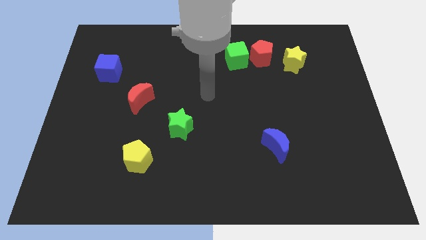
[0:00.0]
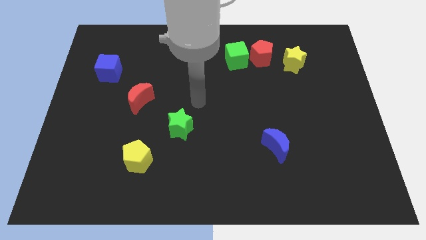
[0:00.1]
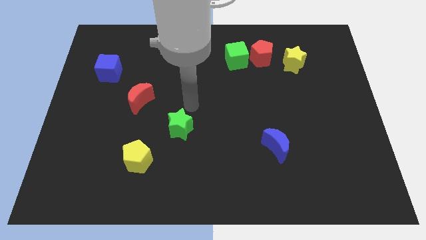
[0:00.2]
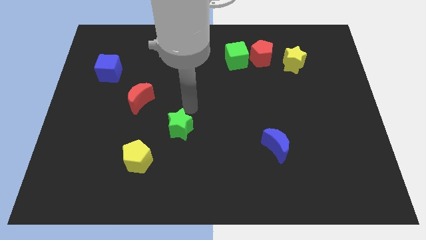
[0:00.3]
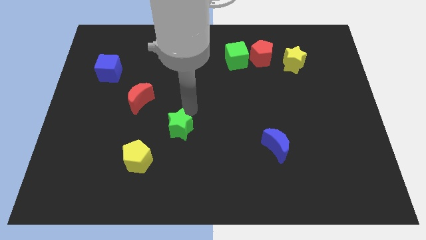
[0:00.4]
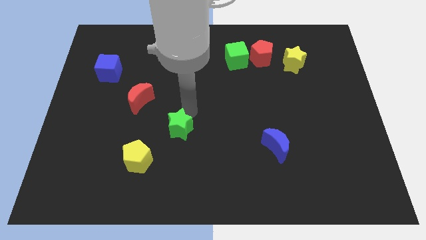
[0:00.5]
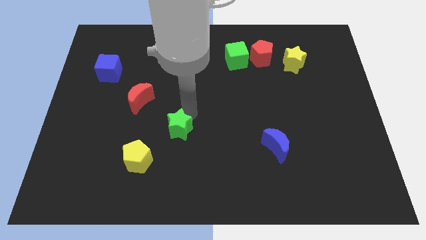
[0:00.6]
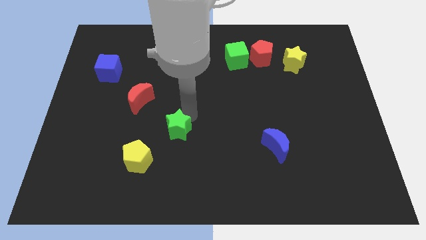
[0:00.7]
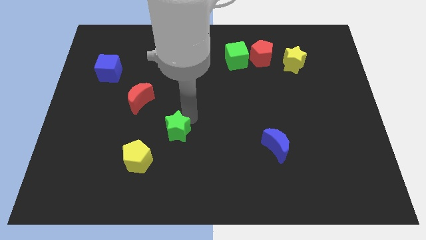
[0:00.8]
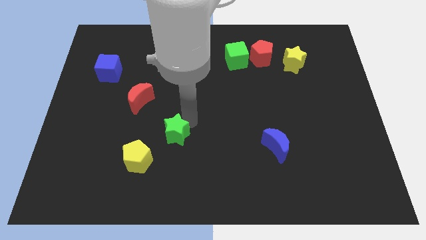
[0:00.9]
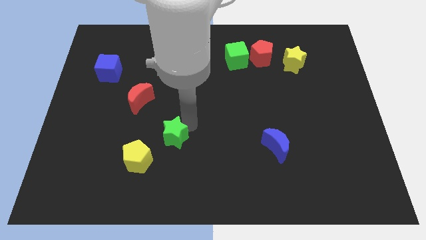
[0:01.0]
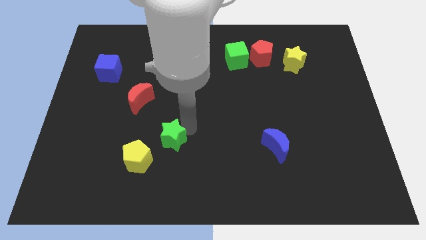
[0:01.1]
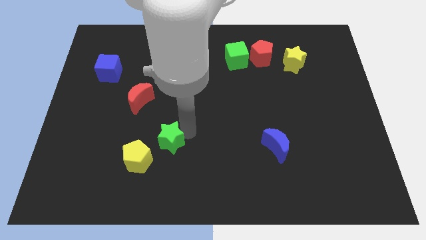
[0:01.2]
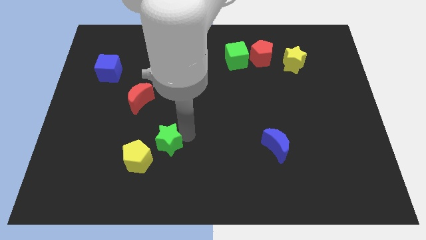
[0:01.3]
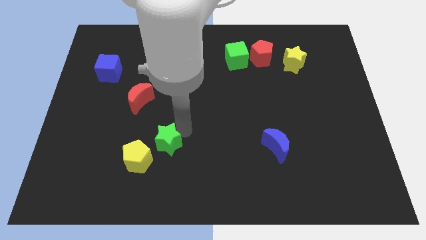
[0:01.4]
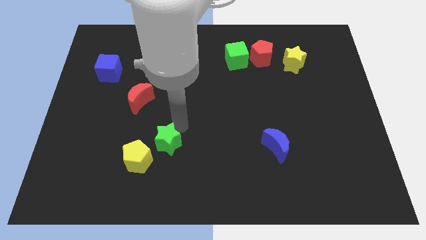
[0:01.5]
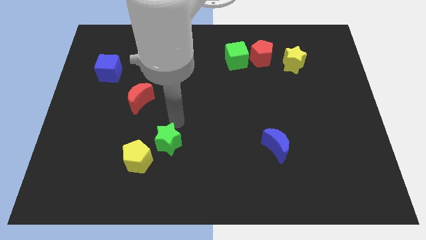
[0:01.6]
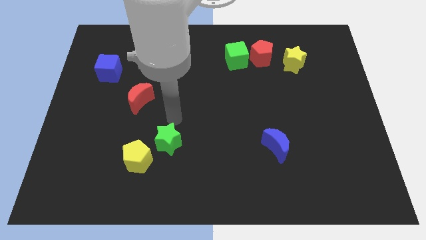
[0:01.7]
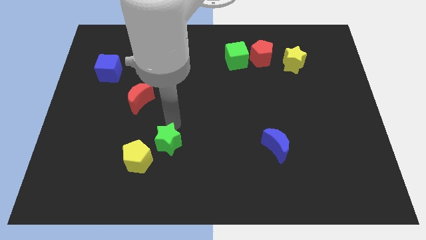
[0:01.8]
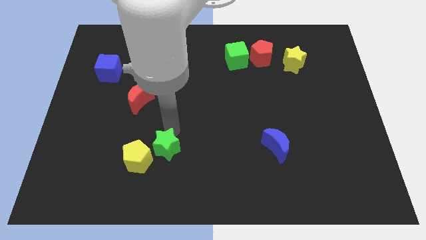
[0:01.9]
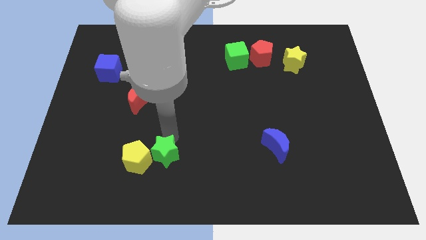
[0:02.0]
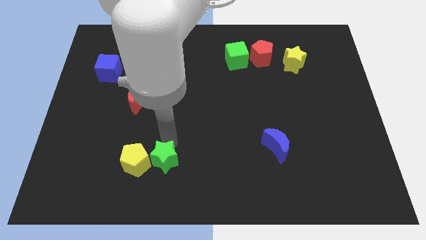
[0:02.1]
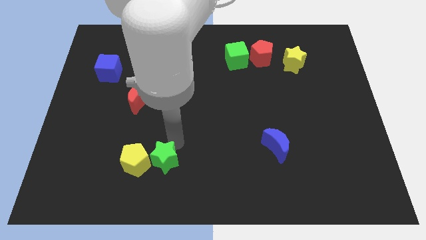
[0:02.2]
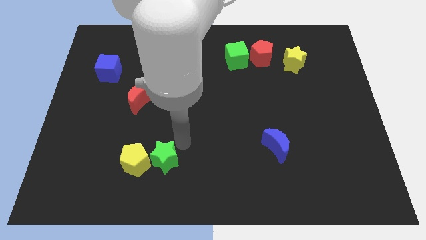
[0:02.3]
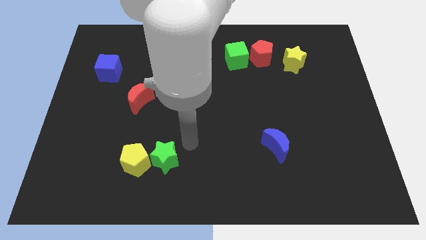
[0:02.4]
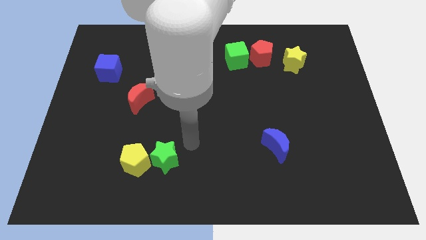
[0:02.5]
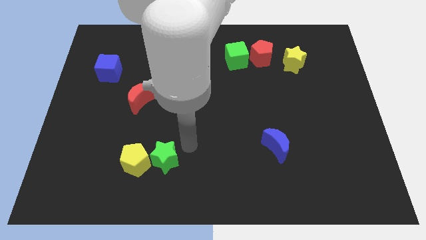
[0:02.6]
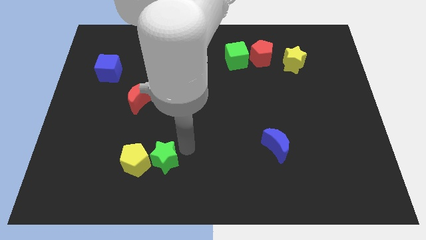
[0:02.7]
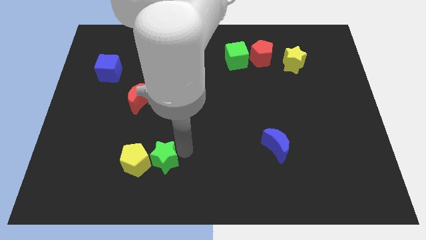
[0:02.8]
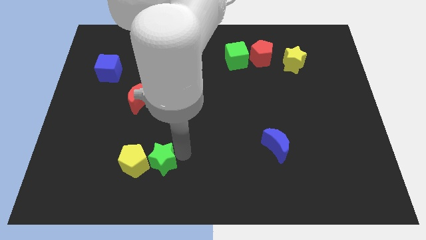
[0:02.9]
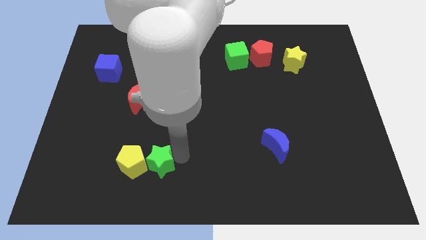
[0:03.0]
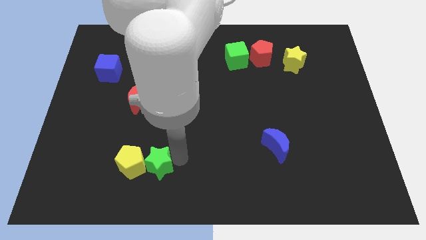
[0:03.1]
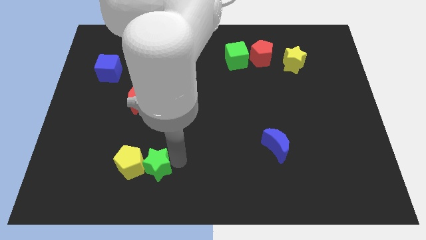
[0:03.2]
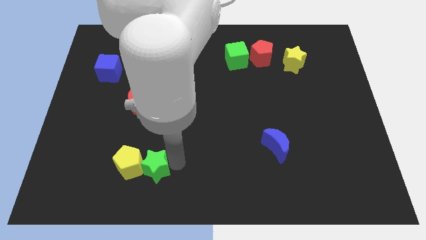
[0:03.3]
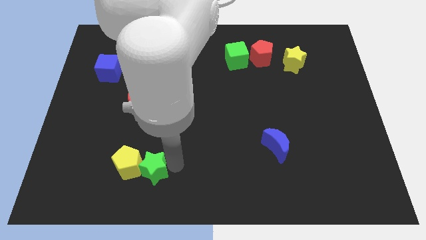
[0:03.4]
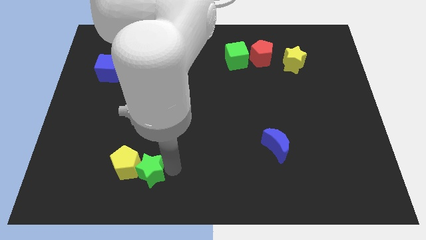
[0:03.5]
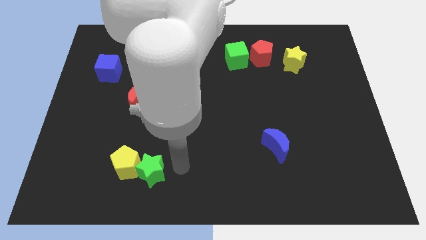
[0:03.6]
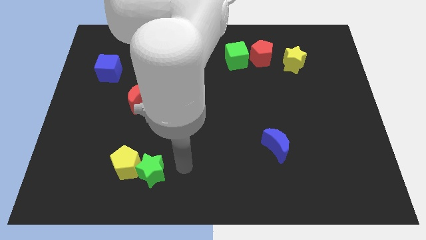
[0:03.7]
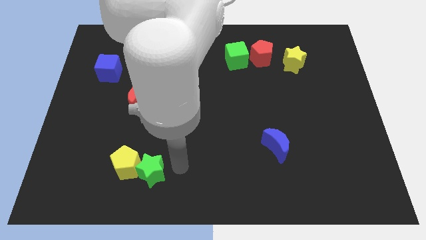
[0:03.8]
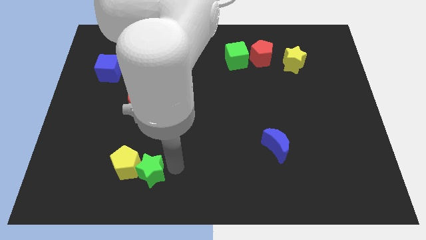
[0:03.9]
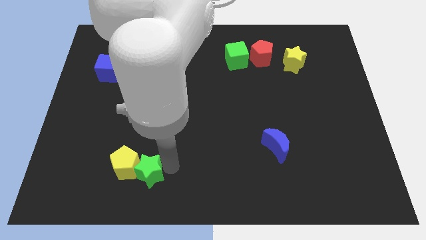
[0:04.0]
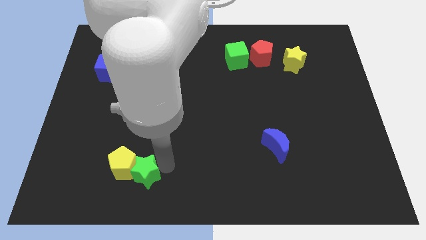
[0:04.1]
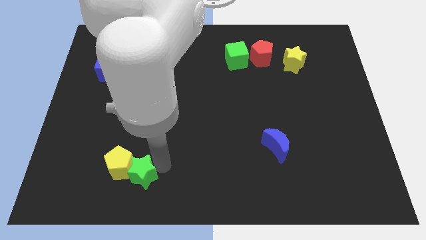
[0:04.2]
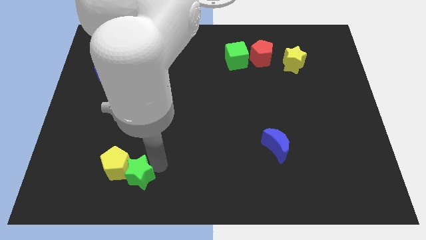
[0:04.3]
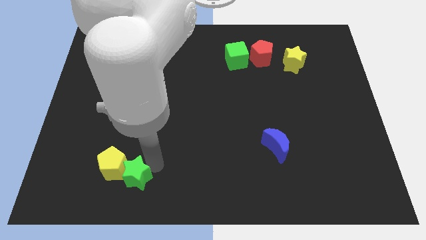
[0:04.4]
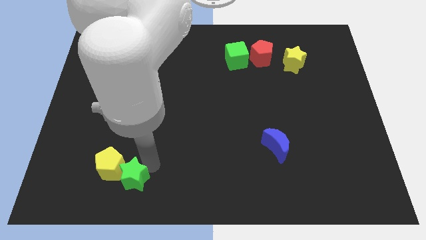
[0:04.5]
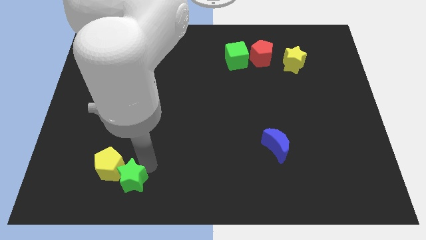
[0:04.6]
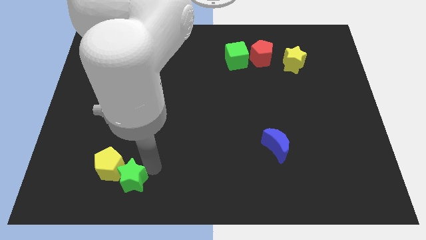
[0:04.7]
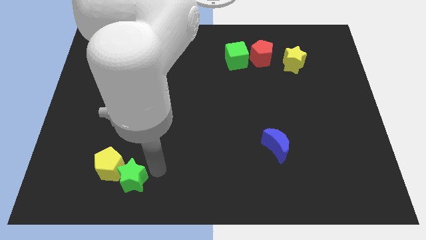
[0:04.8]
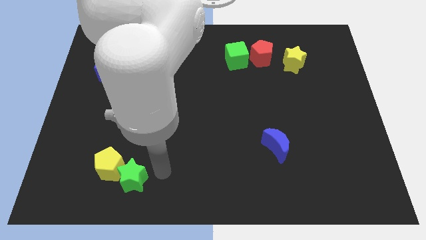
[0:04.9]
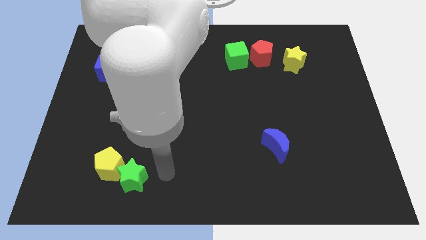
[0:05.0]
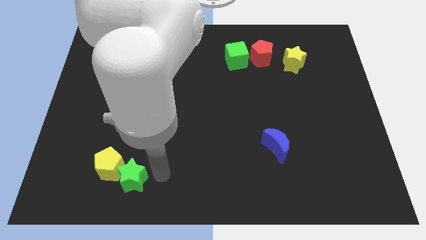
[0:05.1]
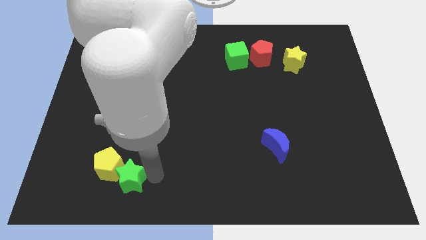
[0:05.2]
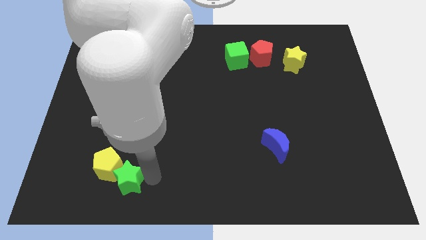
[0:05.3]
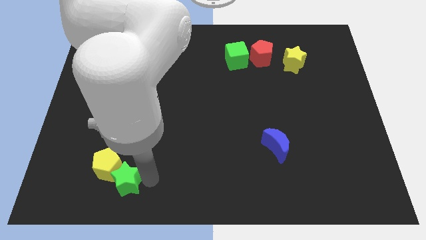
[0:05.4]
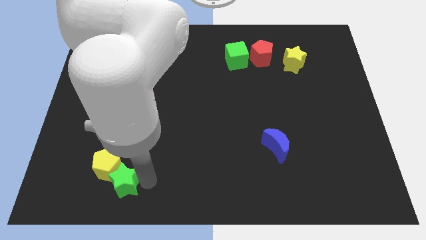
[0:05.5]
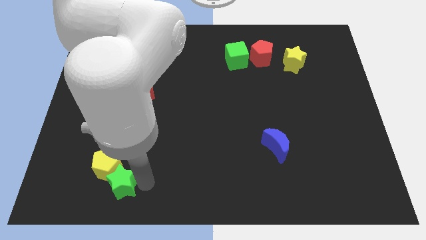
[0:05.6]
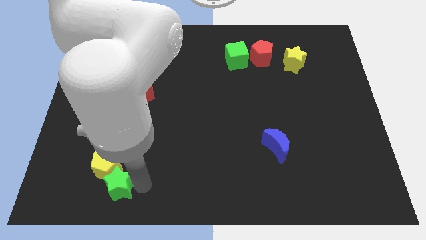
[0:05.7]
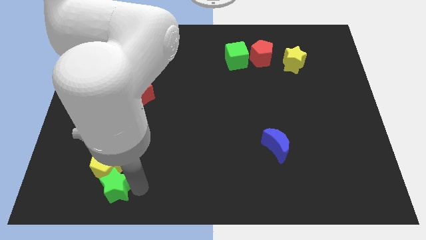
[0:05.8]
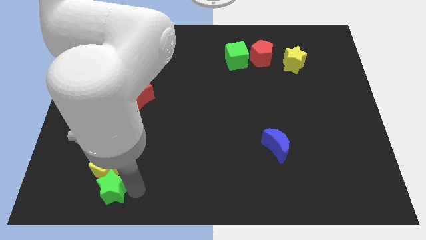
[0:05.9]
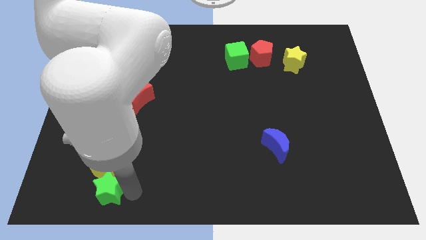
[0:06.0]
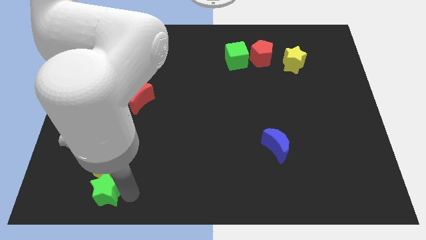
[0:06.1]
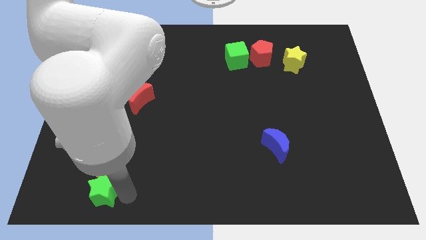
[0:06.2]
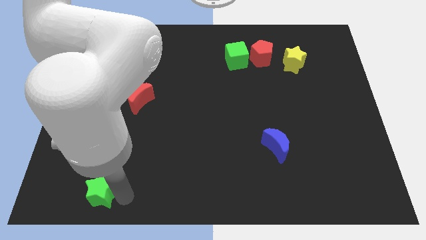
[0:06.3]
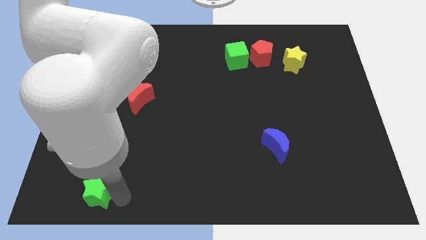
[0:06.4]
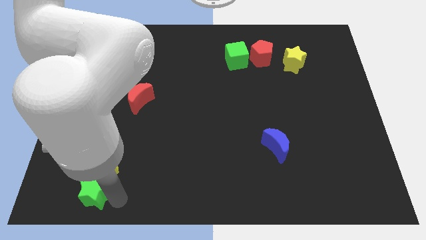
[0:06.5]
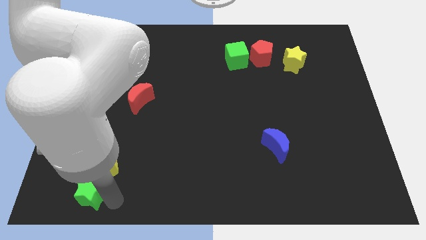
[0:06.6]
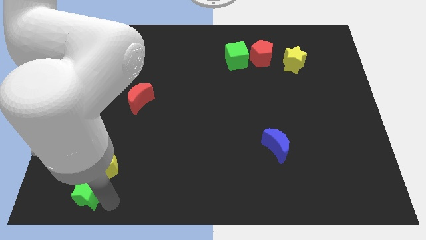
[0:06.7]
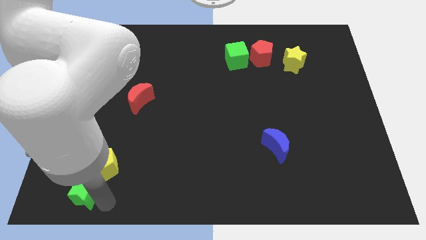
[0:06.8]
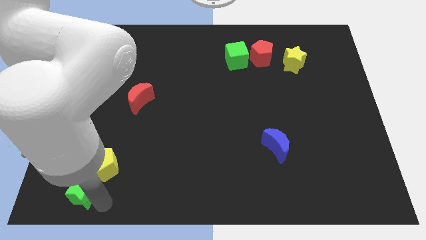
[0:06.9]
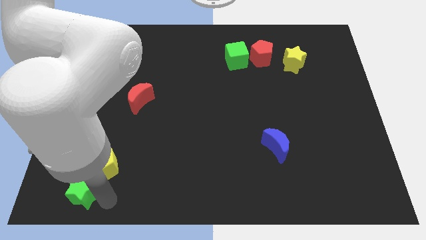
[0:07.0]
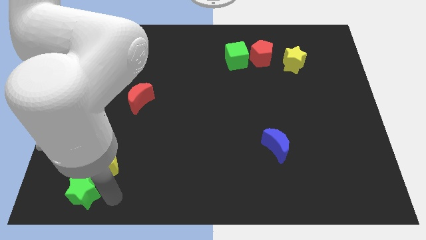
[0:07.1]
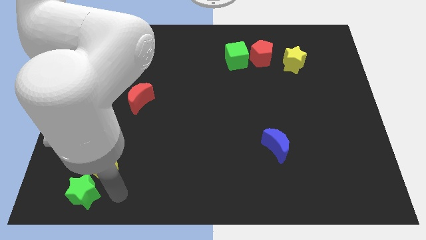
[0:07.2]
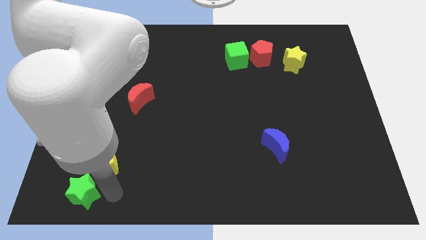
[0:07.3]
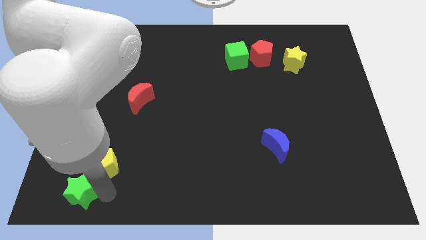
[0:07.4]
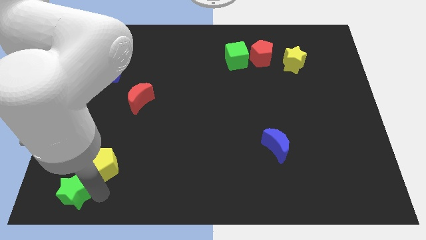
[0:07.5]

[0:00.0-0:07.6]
put the green star to the bottom left
